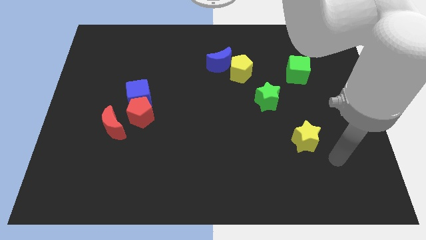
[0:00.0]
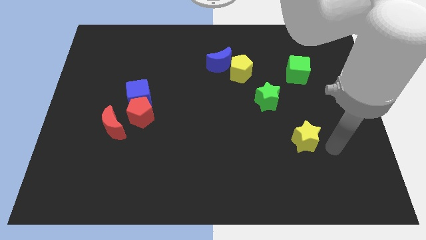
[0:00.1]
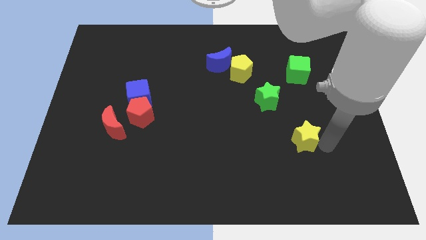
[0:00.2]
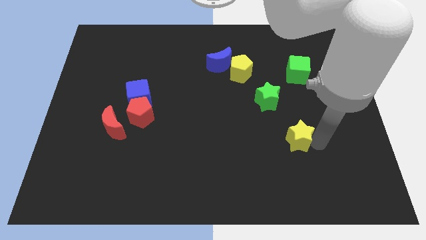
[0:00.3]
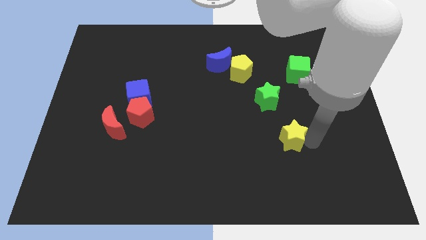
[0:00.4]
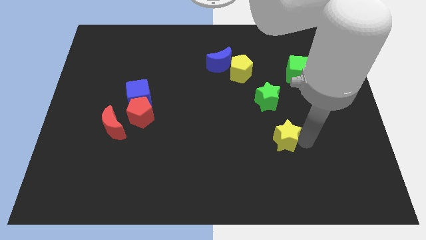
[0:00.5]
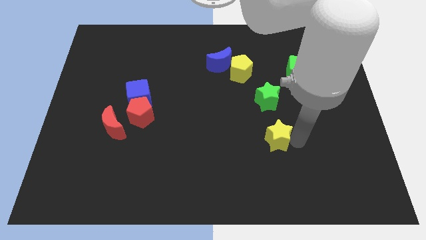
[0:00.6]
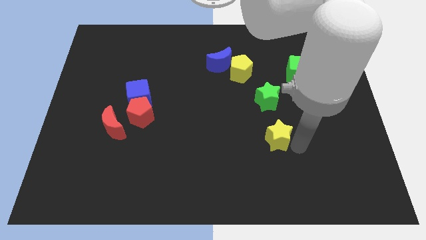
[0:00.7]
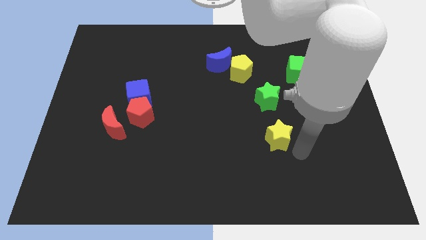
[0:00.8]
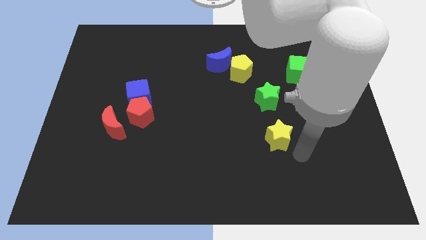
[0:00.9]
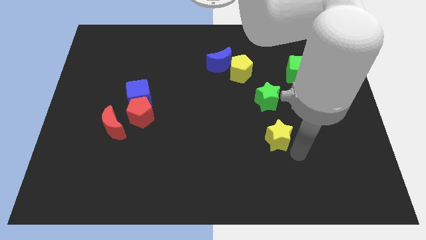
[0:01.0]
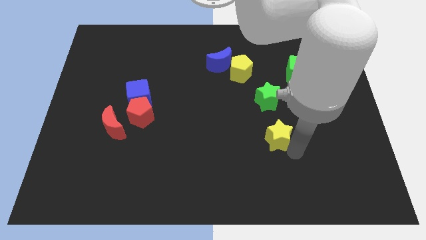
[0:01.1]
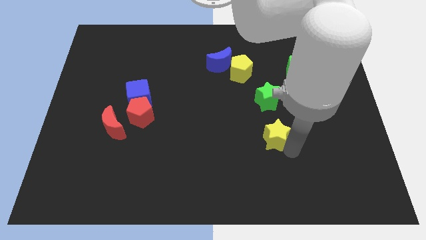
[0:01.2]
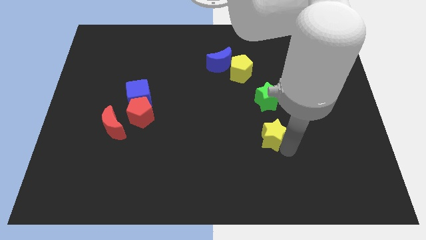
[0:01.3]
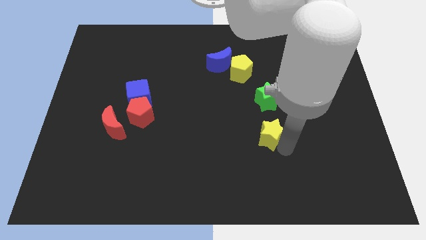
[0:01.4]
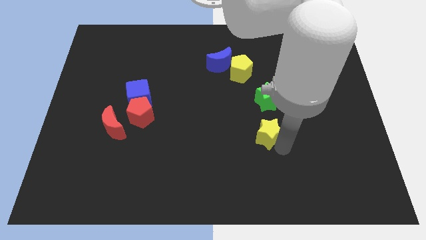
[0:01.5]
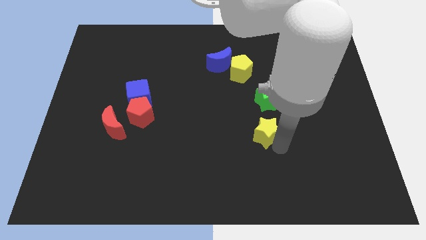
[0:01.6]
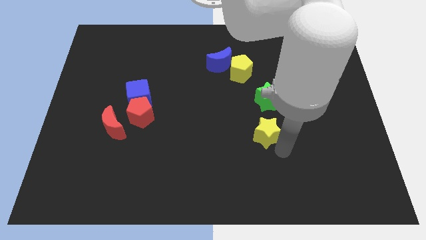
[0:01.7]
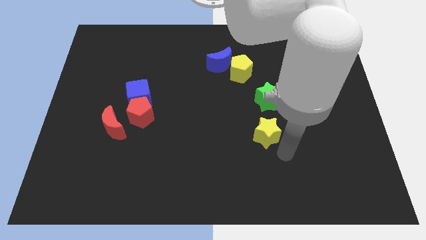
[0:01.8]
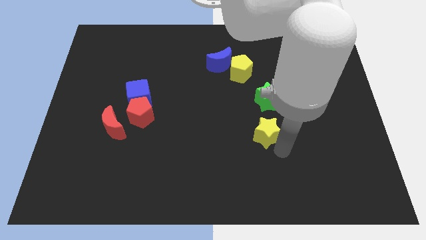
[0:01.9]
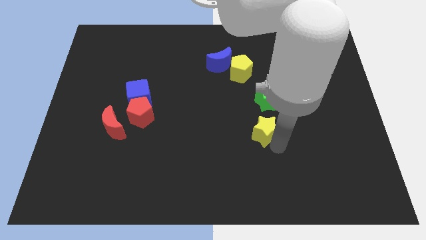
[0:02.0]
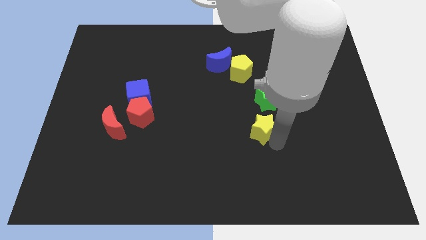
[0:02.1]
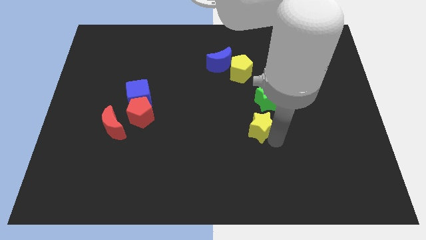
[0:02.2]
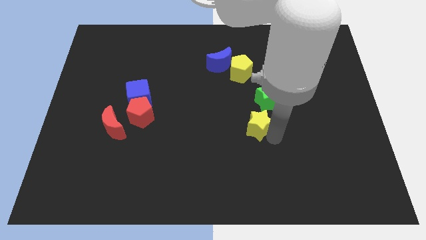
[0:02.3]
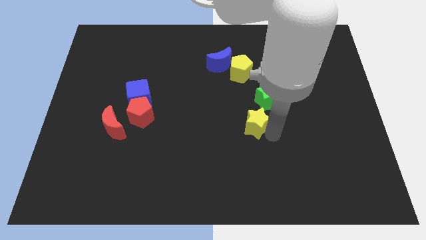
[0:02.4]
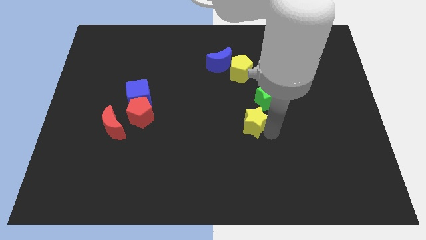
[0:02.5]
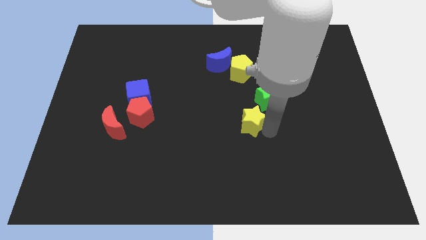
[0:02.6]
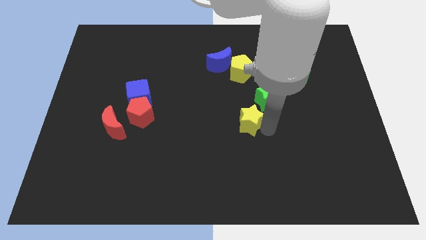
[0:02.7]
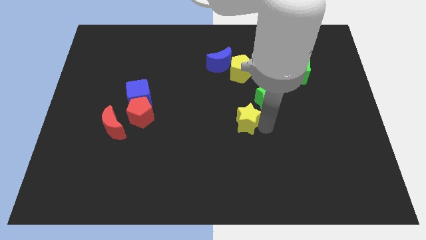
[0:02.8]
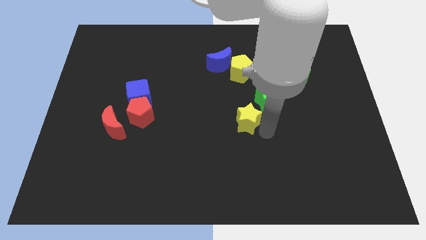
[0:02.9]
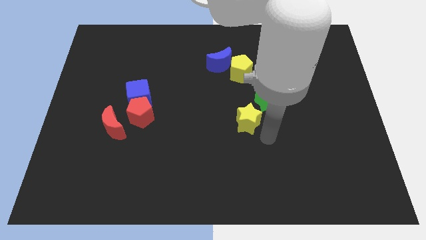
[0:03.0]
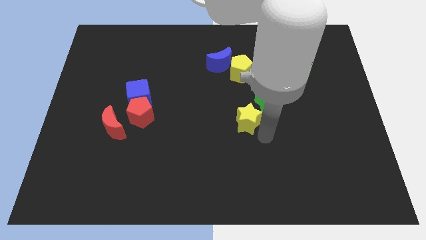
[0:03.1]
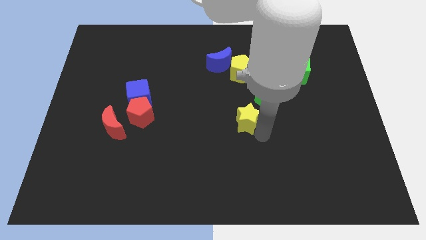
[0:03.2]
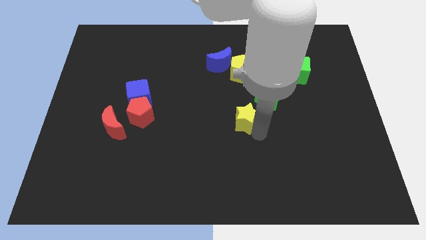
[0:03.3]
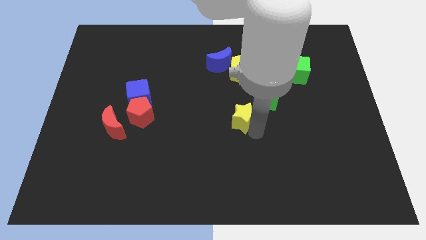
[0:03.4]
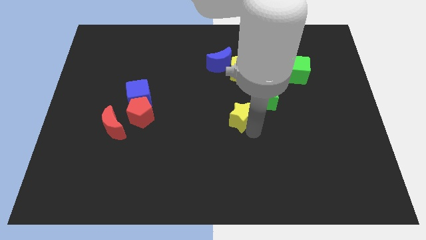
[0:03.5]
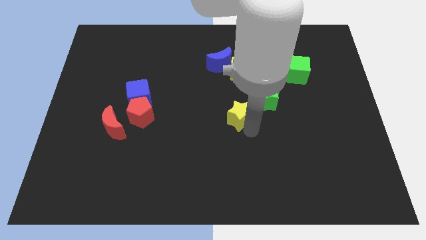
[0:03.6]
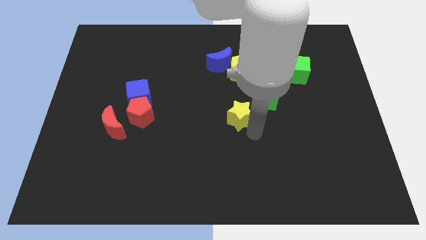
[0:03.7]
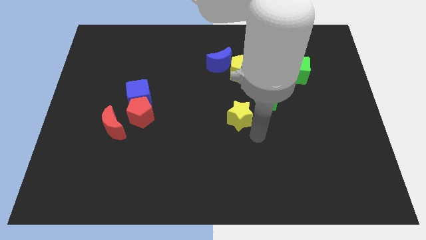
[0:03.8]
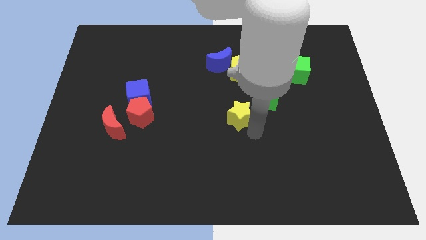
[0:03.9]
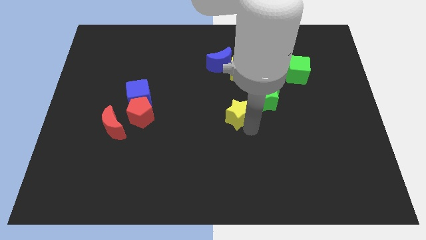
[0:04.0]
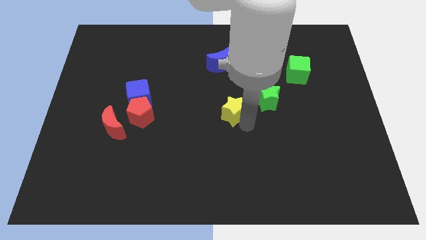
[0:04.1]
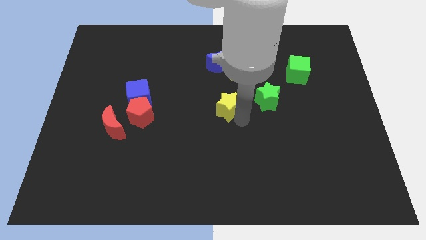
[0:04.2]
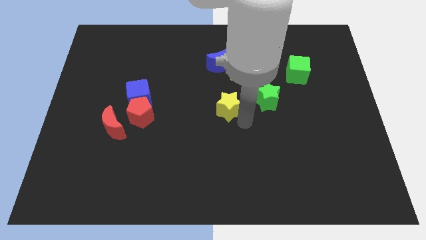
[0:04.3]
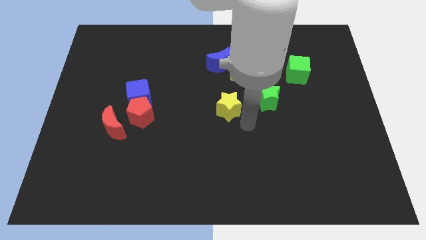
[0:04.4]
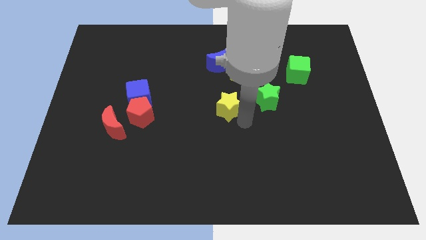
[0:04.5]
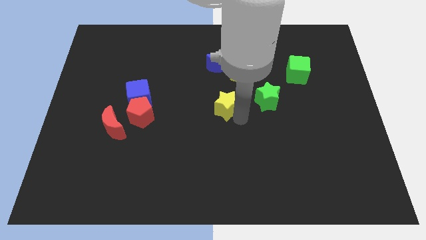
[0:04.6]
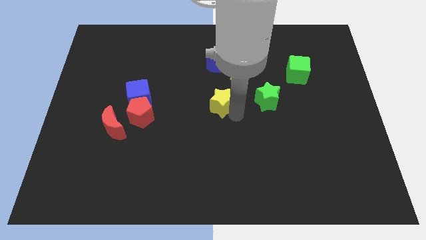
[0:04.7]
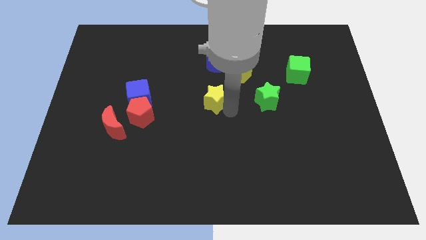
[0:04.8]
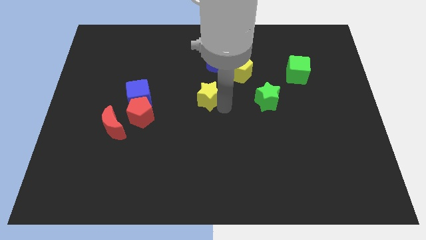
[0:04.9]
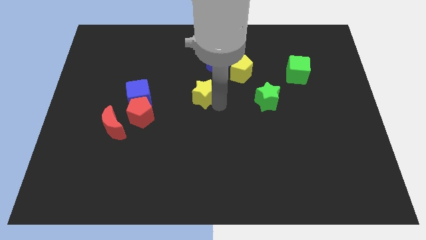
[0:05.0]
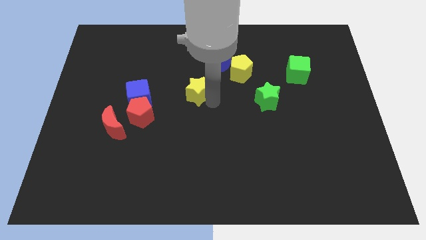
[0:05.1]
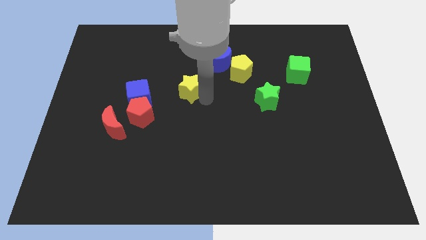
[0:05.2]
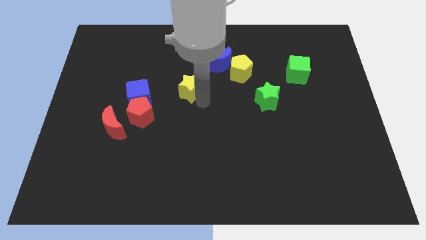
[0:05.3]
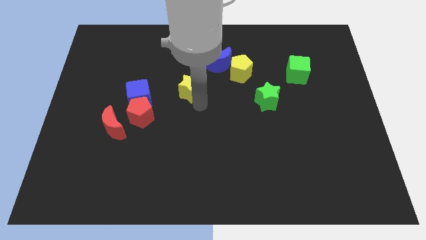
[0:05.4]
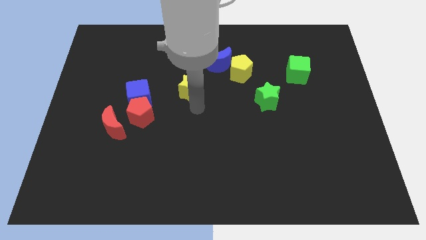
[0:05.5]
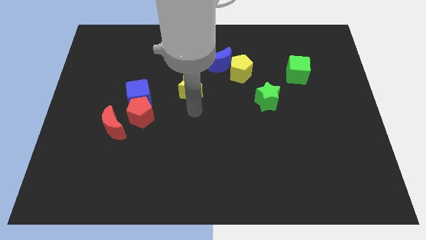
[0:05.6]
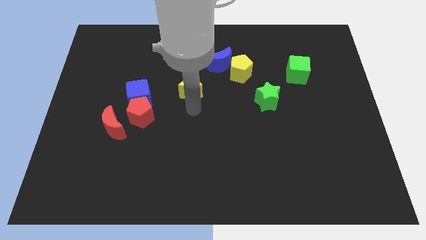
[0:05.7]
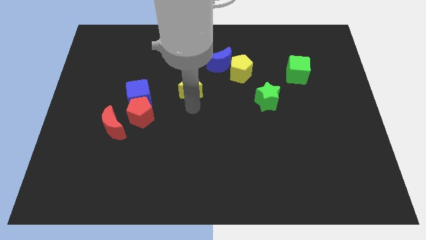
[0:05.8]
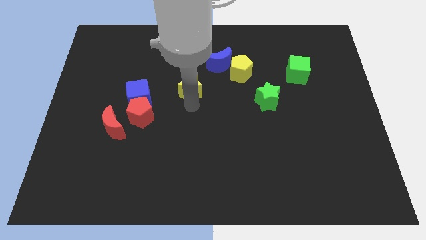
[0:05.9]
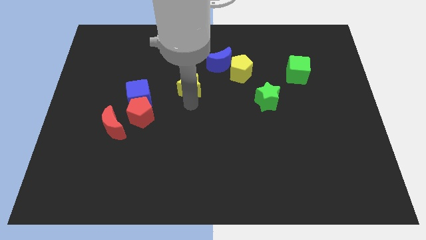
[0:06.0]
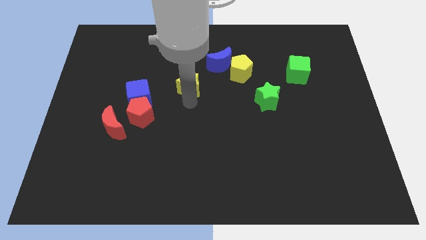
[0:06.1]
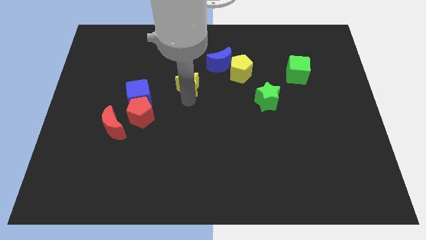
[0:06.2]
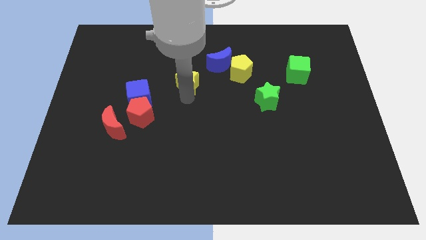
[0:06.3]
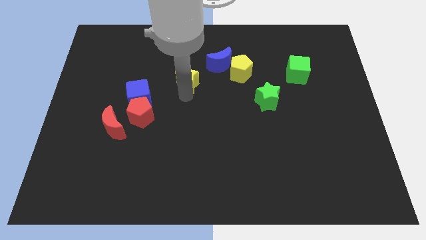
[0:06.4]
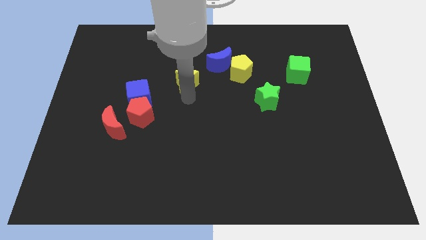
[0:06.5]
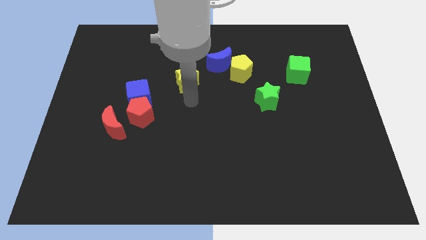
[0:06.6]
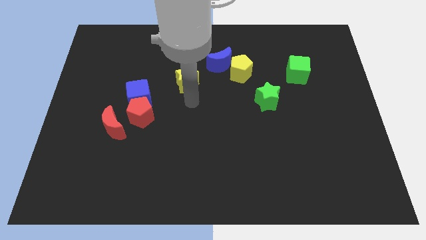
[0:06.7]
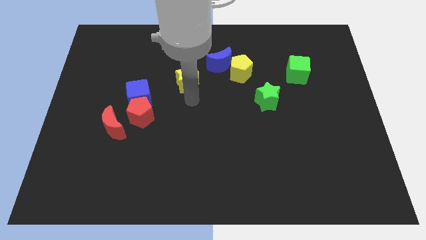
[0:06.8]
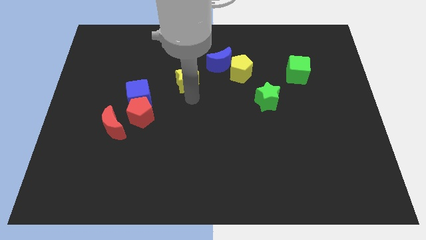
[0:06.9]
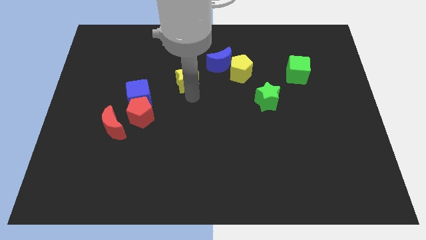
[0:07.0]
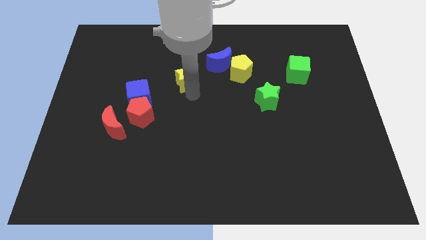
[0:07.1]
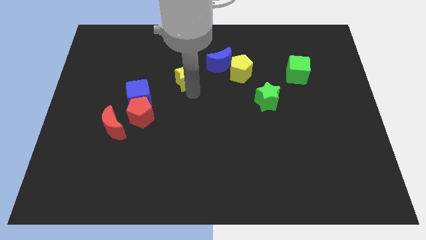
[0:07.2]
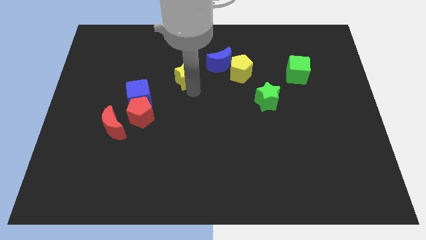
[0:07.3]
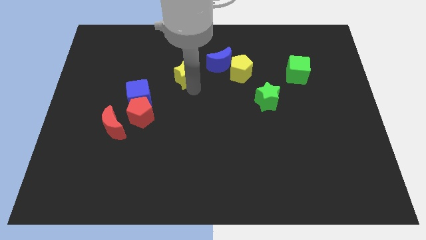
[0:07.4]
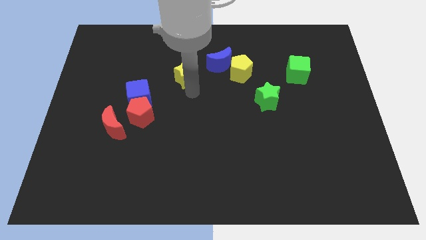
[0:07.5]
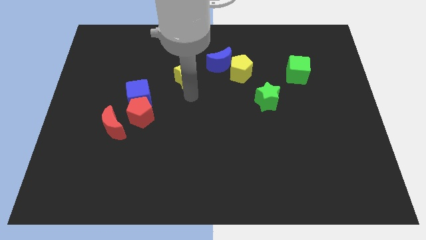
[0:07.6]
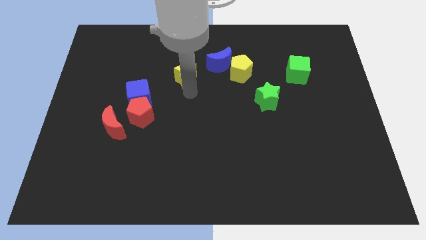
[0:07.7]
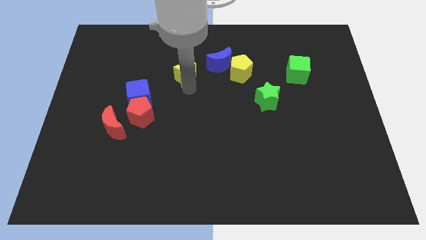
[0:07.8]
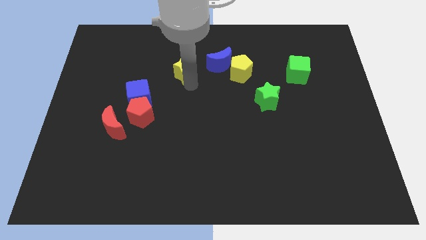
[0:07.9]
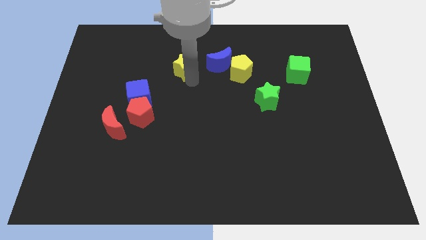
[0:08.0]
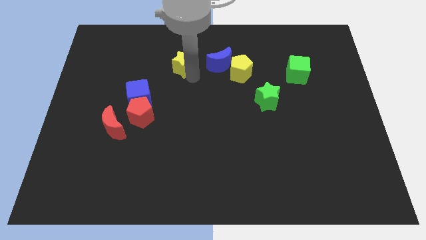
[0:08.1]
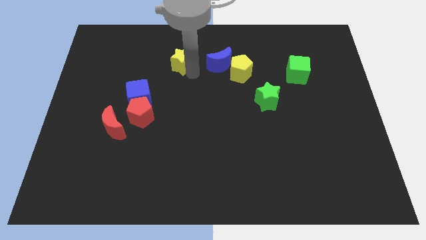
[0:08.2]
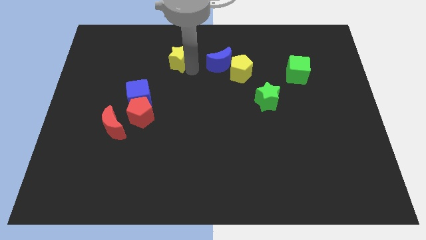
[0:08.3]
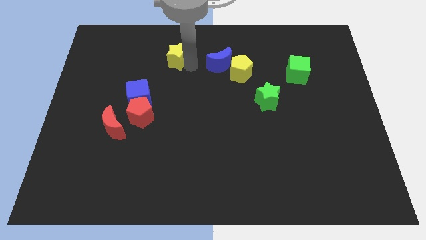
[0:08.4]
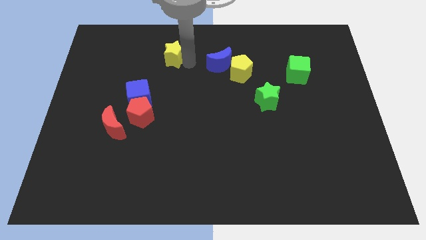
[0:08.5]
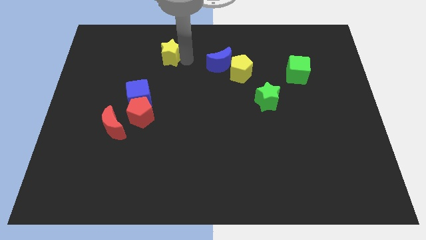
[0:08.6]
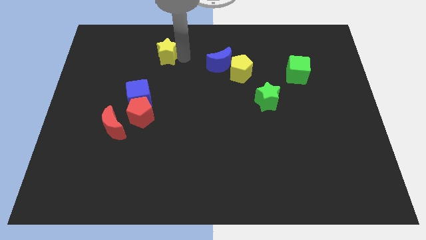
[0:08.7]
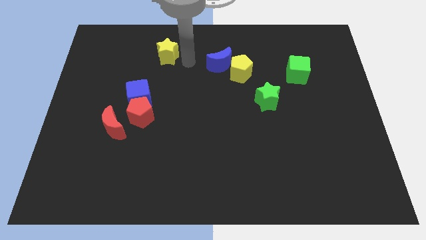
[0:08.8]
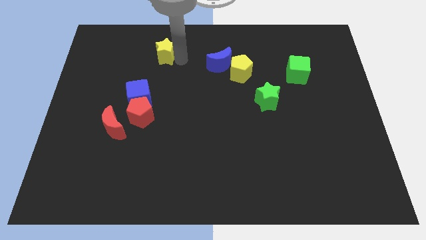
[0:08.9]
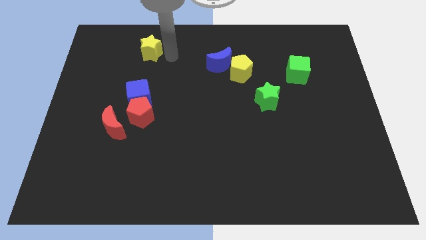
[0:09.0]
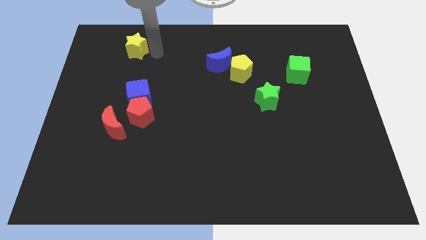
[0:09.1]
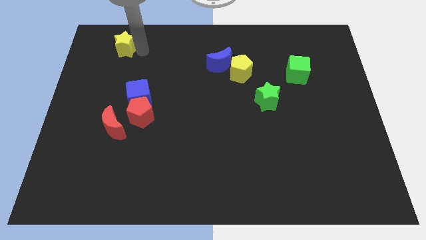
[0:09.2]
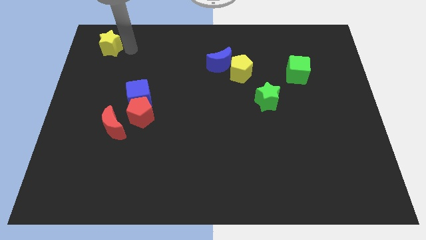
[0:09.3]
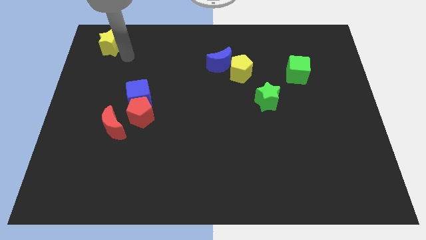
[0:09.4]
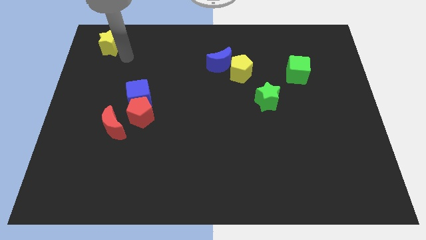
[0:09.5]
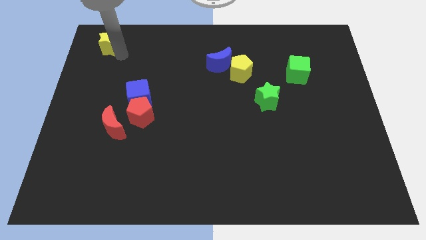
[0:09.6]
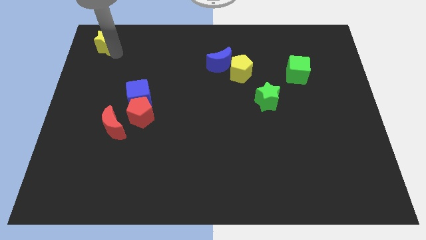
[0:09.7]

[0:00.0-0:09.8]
slide the yellow star to the top left corner
